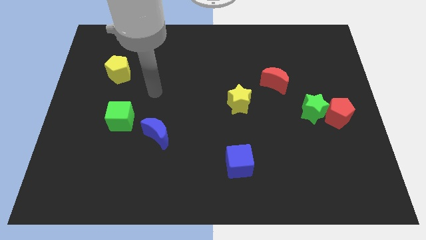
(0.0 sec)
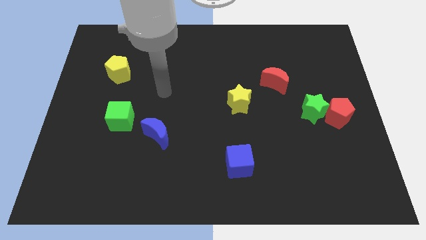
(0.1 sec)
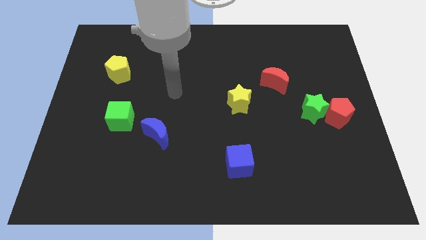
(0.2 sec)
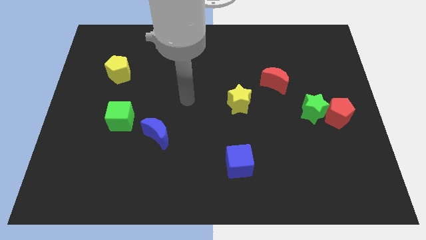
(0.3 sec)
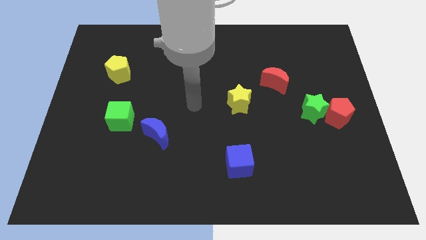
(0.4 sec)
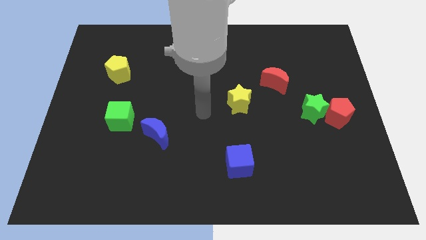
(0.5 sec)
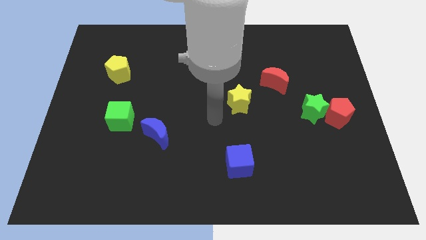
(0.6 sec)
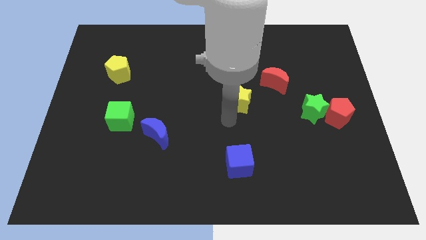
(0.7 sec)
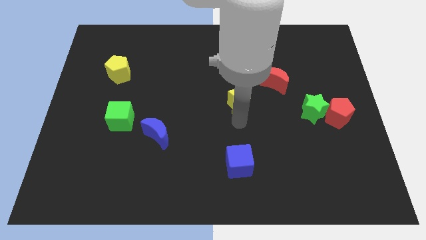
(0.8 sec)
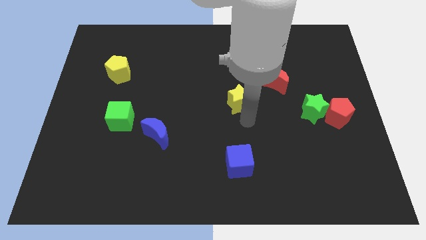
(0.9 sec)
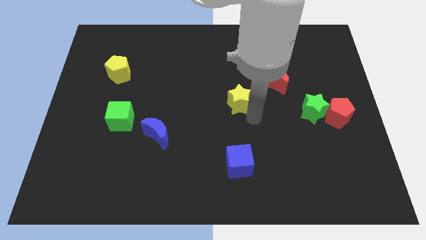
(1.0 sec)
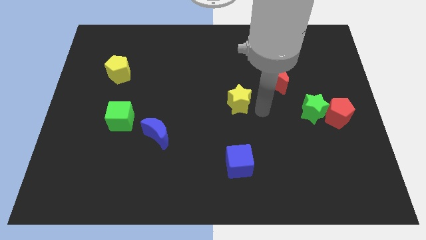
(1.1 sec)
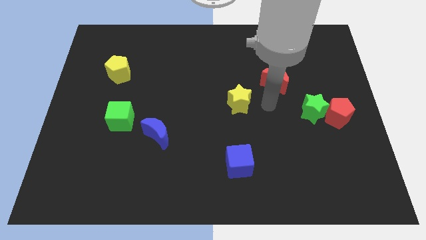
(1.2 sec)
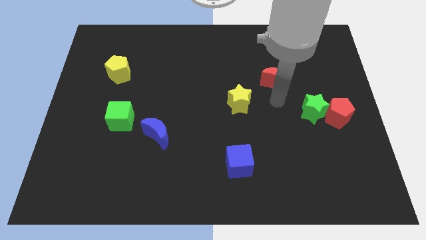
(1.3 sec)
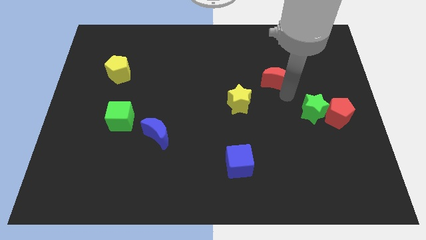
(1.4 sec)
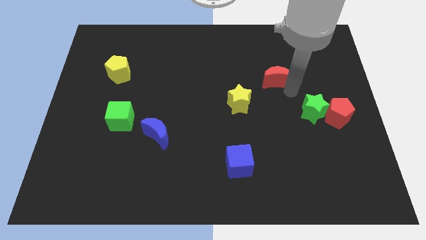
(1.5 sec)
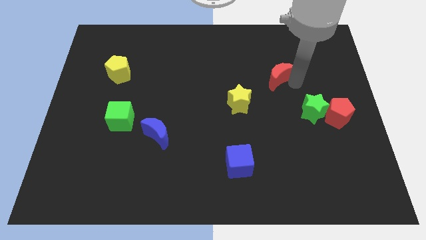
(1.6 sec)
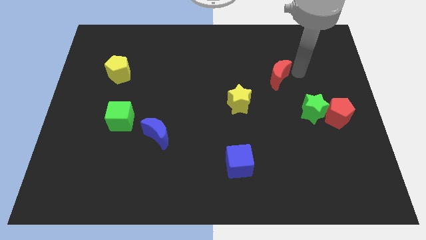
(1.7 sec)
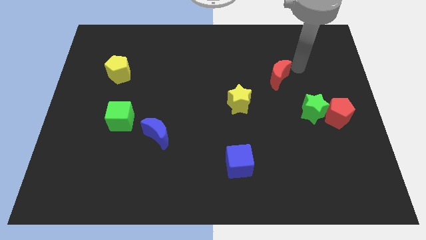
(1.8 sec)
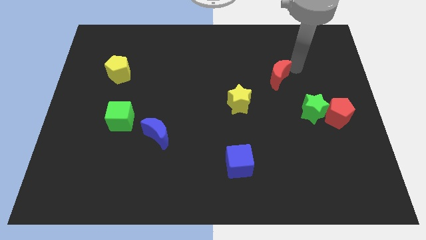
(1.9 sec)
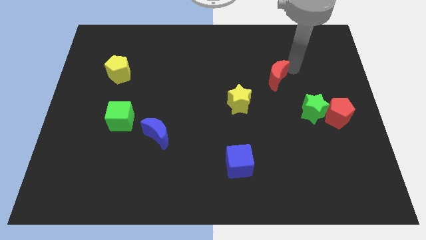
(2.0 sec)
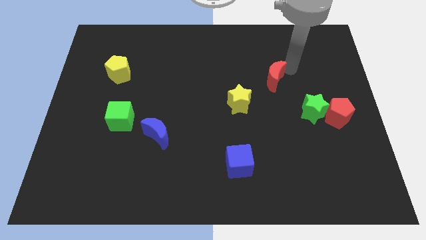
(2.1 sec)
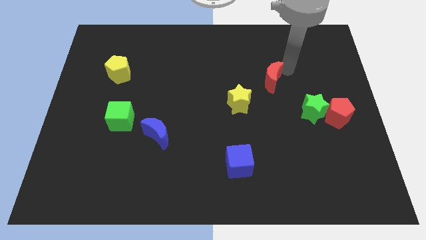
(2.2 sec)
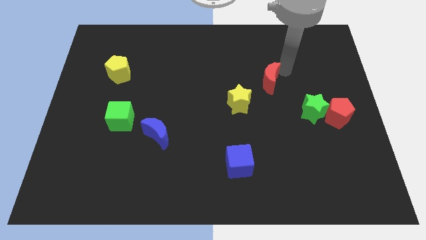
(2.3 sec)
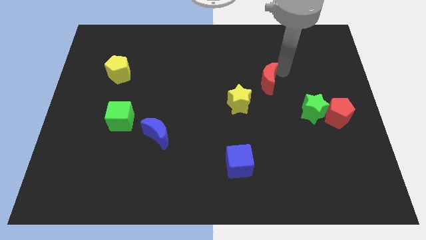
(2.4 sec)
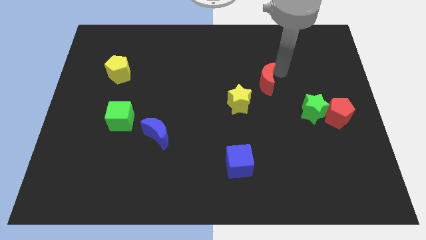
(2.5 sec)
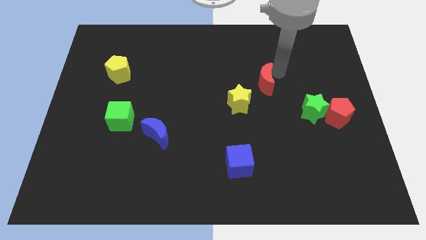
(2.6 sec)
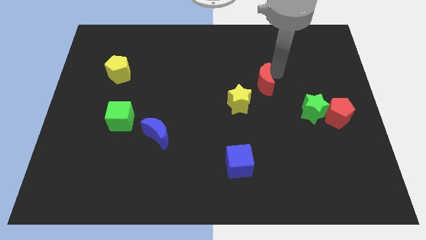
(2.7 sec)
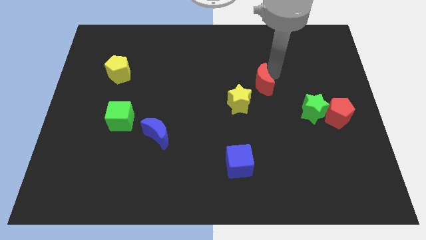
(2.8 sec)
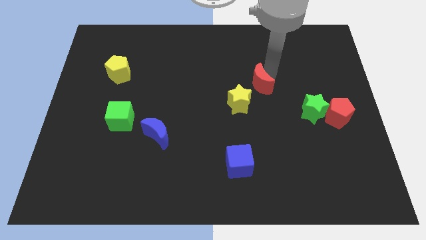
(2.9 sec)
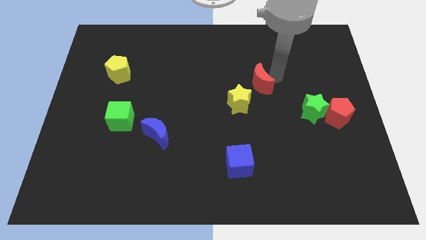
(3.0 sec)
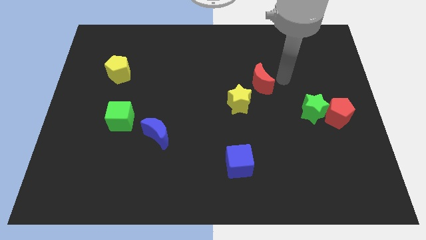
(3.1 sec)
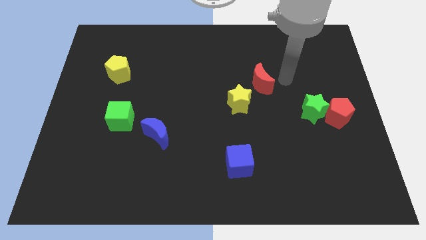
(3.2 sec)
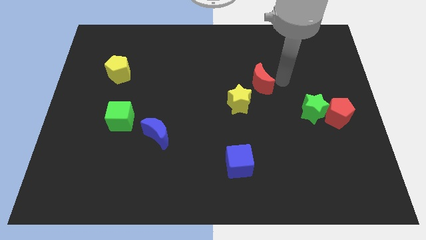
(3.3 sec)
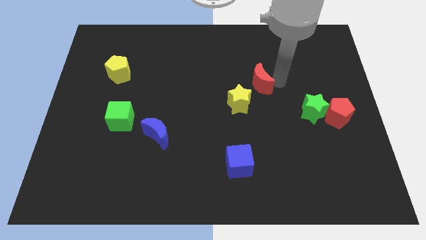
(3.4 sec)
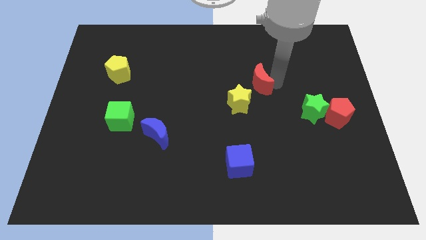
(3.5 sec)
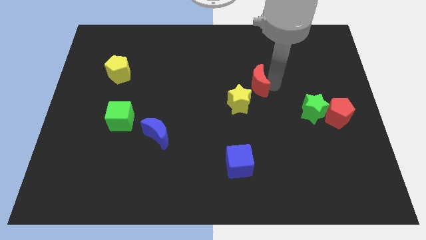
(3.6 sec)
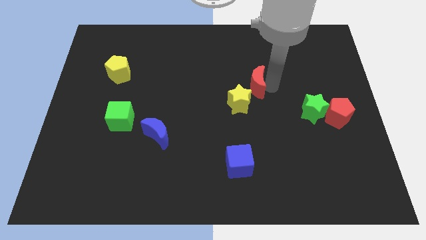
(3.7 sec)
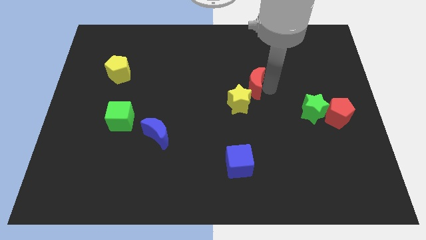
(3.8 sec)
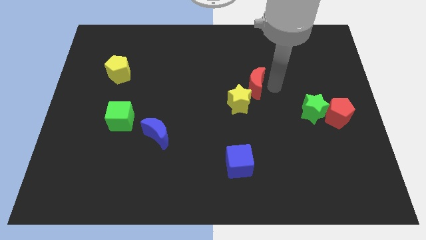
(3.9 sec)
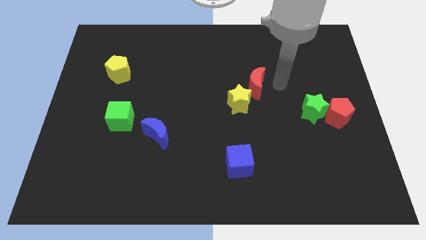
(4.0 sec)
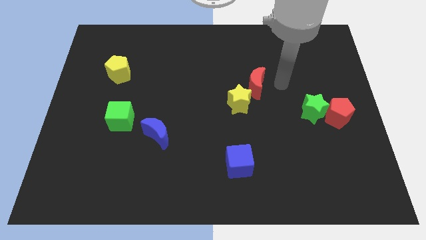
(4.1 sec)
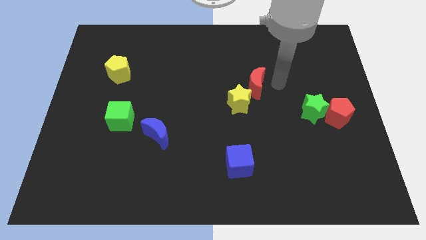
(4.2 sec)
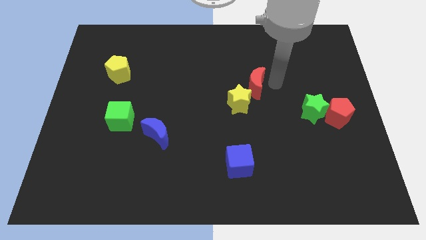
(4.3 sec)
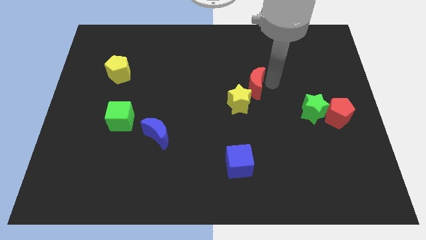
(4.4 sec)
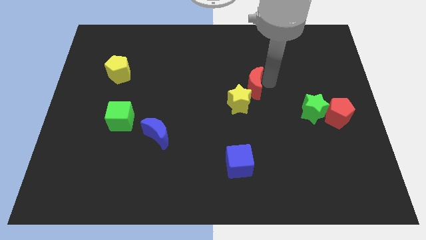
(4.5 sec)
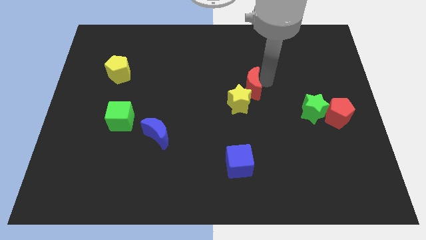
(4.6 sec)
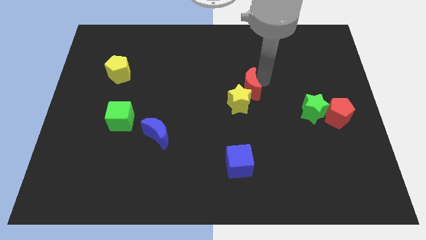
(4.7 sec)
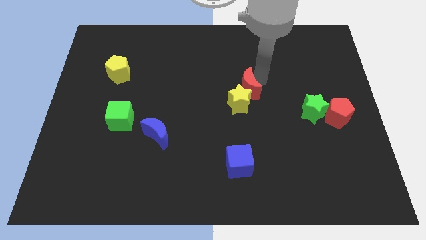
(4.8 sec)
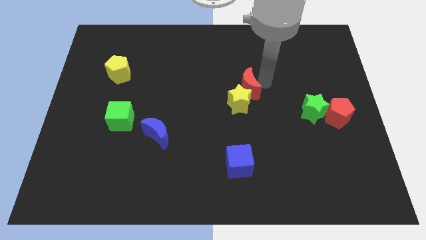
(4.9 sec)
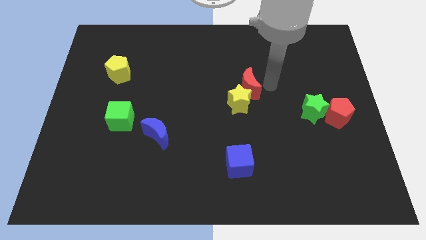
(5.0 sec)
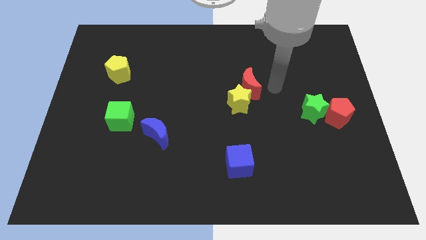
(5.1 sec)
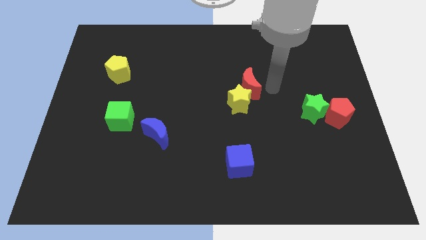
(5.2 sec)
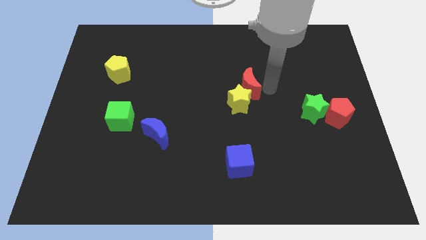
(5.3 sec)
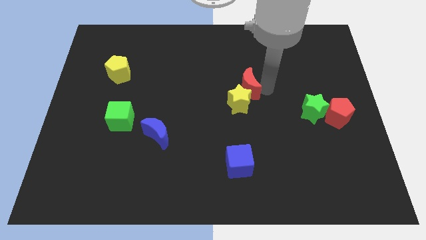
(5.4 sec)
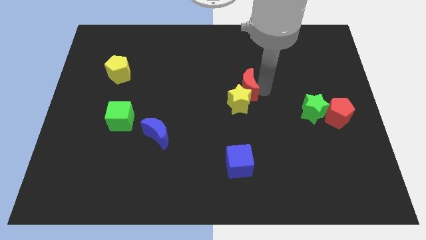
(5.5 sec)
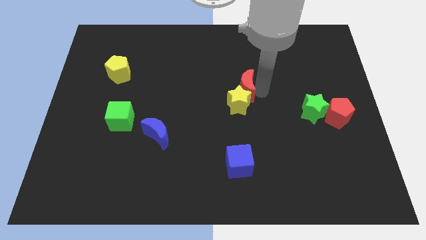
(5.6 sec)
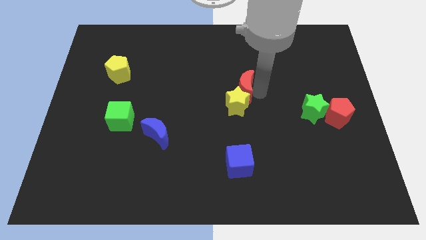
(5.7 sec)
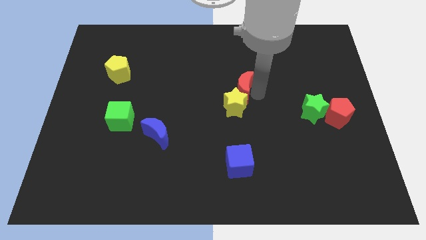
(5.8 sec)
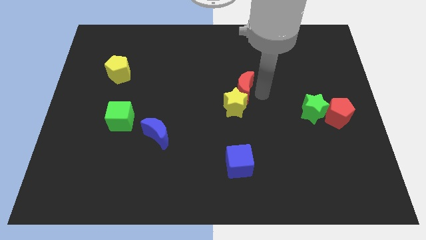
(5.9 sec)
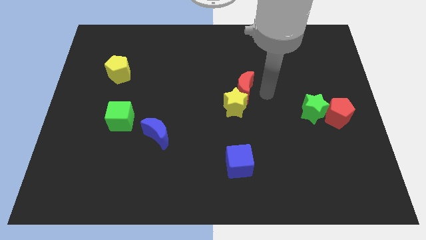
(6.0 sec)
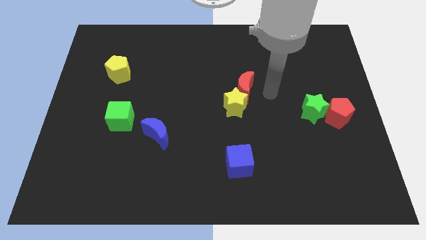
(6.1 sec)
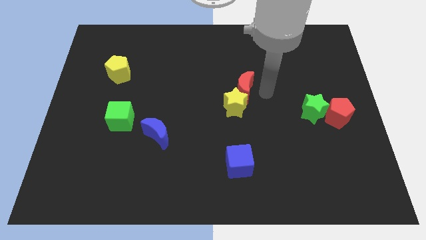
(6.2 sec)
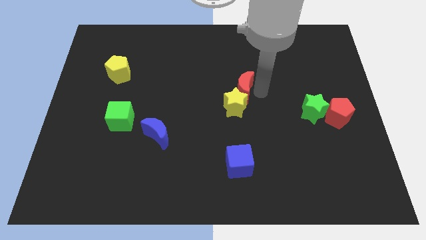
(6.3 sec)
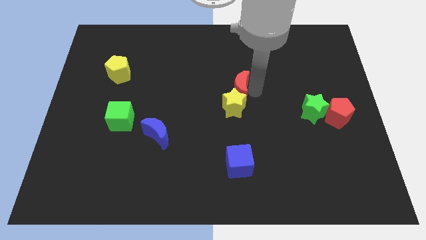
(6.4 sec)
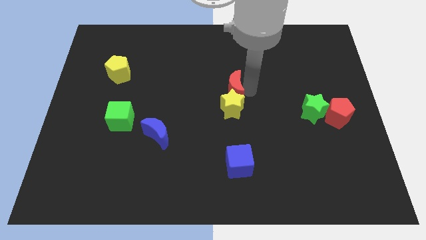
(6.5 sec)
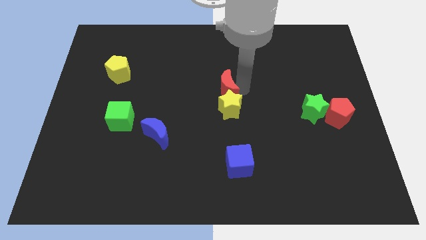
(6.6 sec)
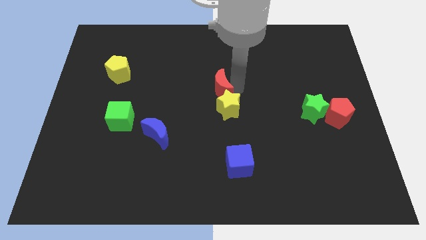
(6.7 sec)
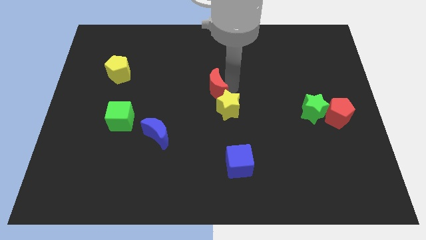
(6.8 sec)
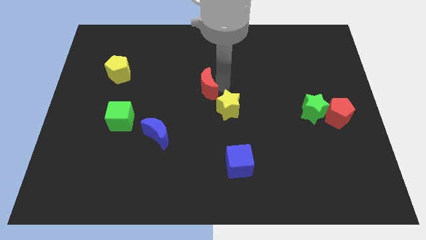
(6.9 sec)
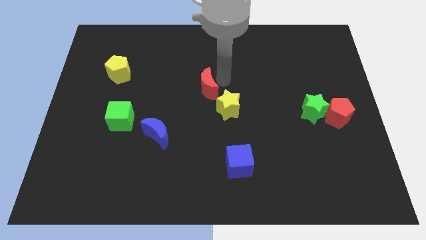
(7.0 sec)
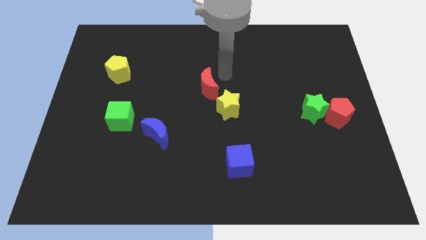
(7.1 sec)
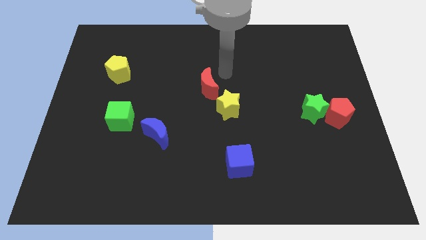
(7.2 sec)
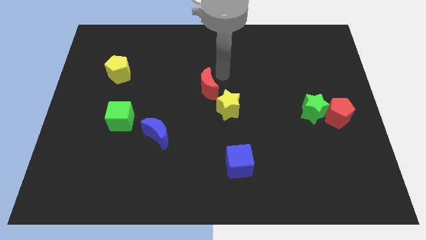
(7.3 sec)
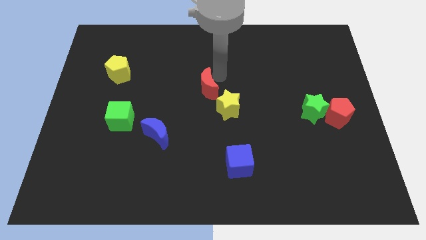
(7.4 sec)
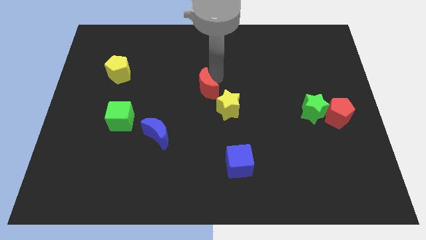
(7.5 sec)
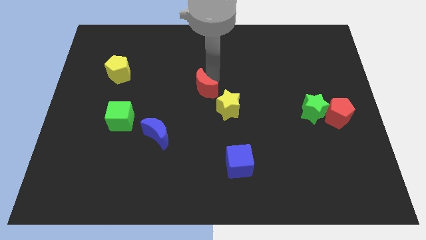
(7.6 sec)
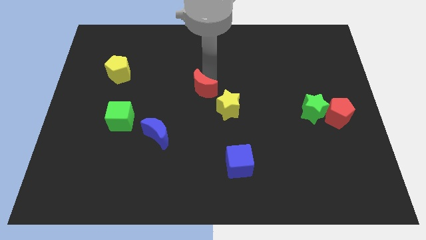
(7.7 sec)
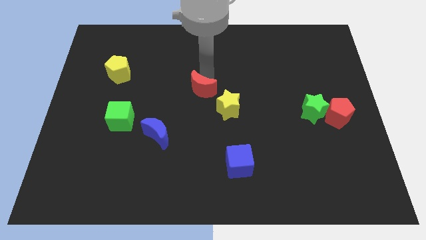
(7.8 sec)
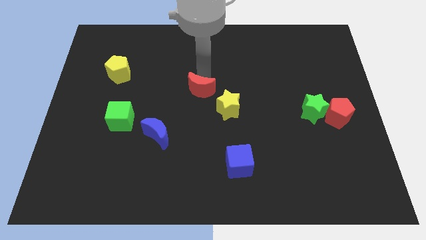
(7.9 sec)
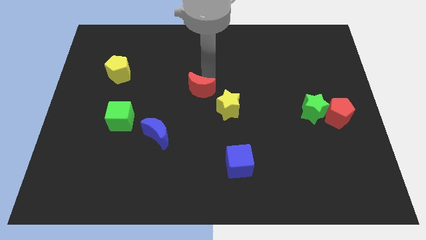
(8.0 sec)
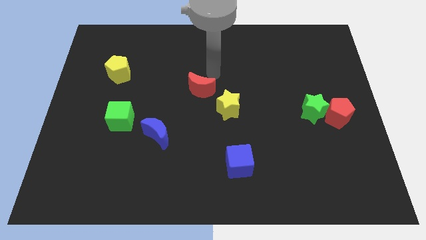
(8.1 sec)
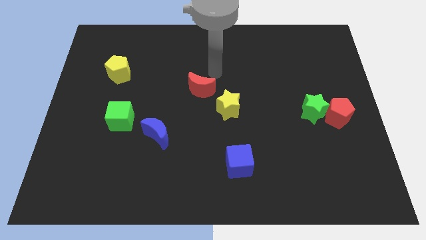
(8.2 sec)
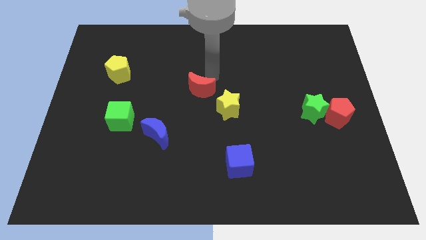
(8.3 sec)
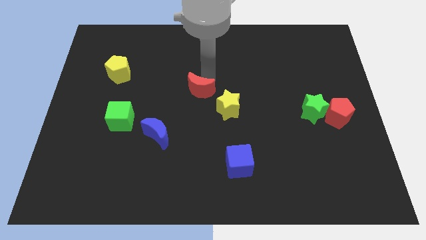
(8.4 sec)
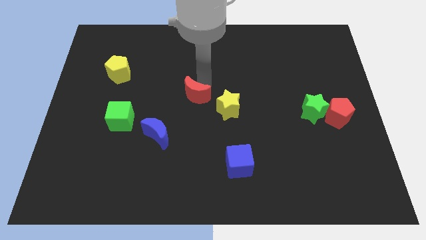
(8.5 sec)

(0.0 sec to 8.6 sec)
push the red moon to the left side of the yellow star
